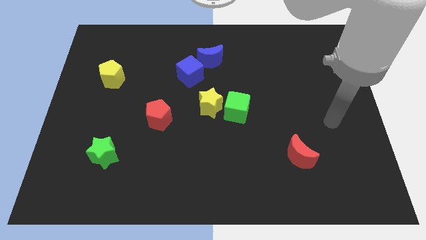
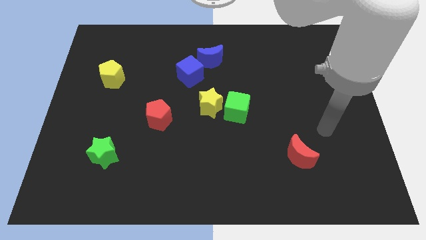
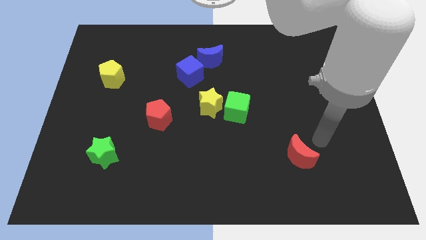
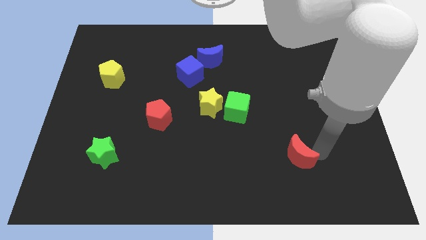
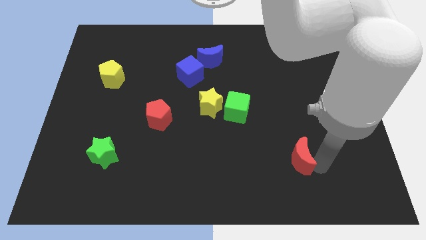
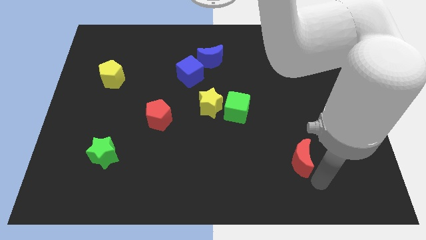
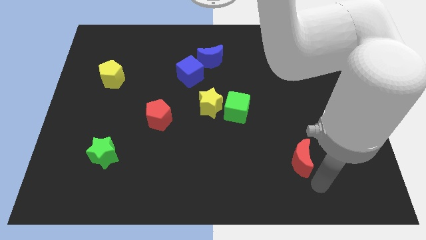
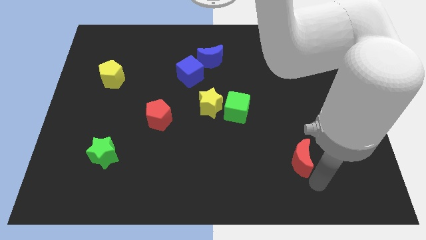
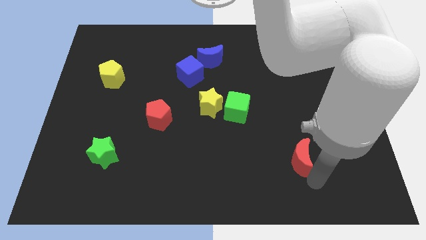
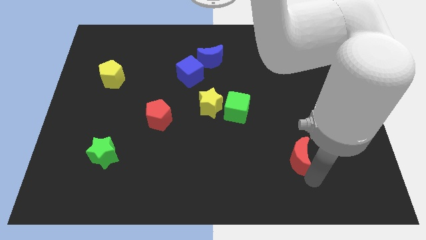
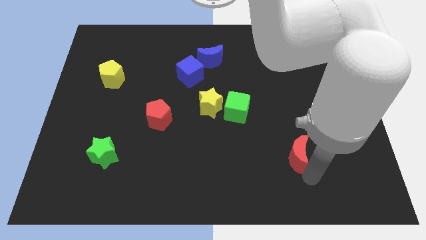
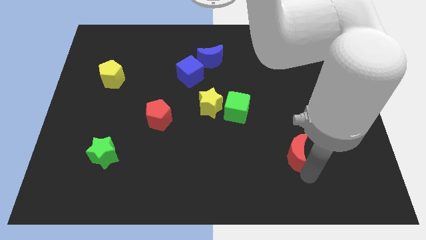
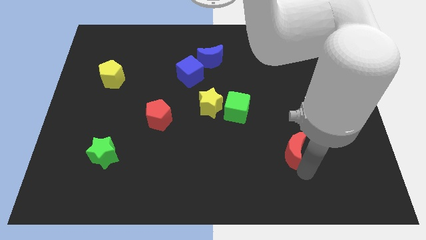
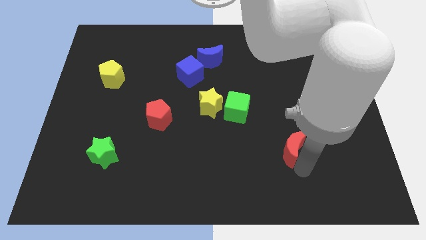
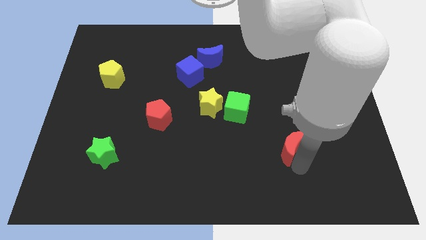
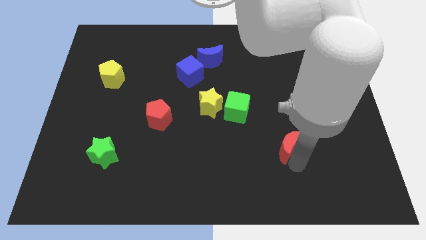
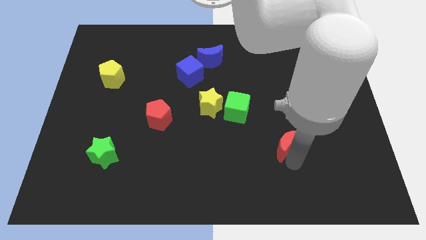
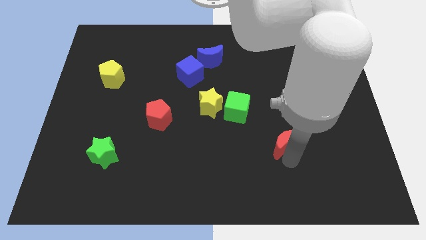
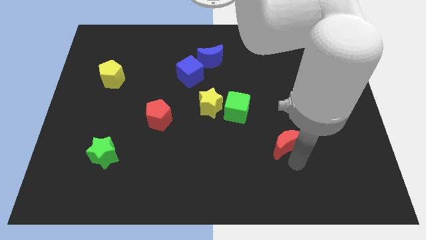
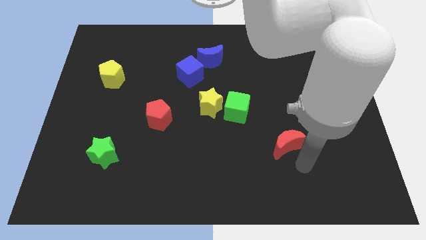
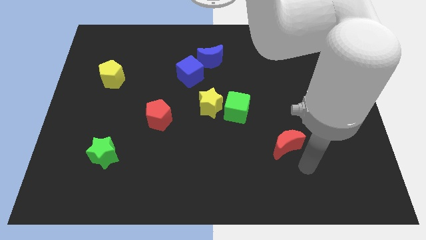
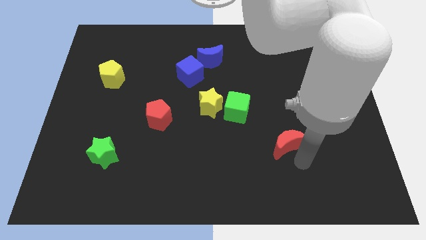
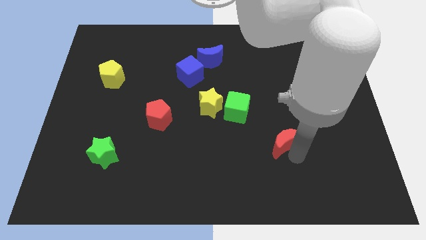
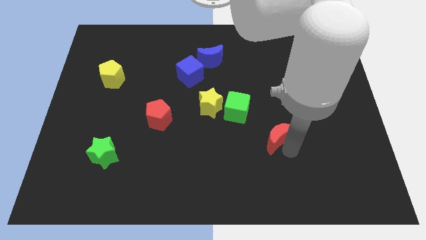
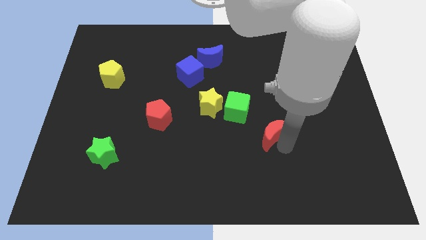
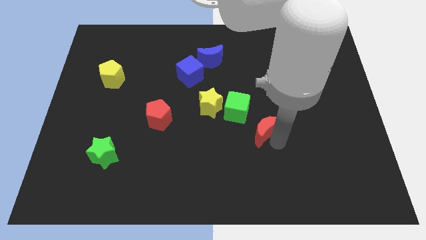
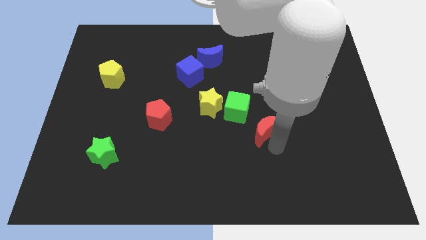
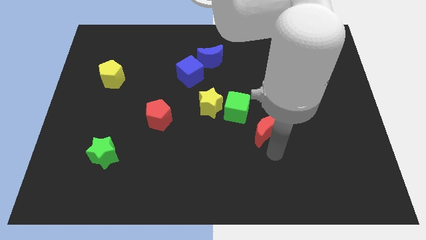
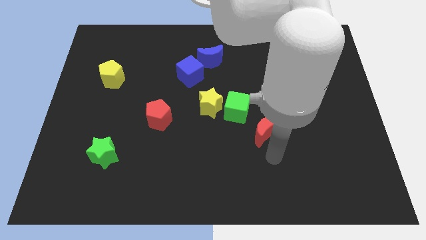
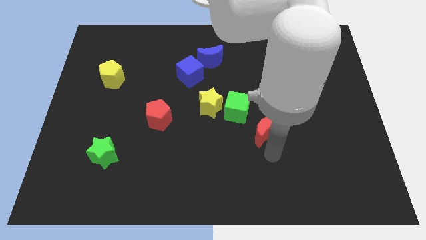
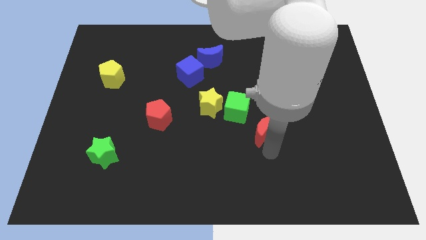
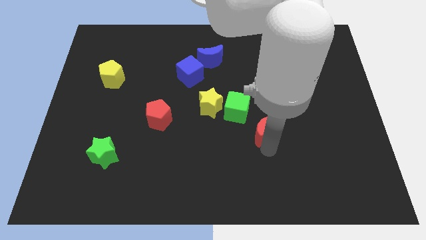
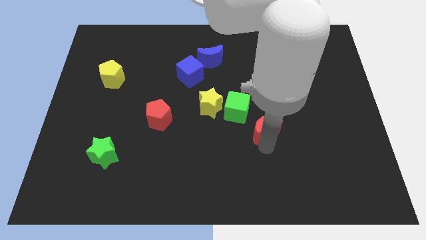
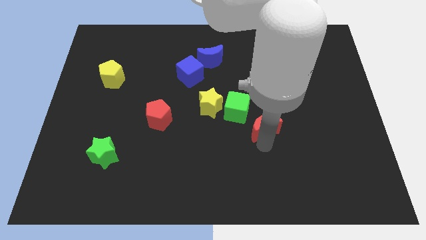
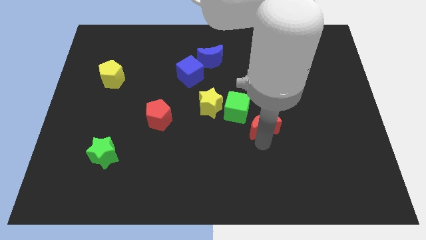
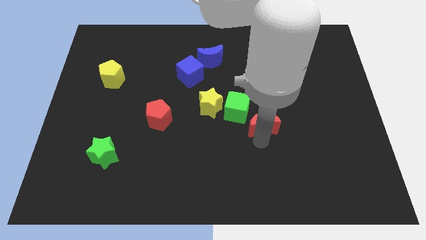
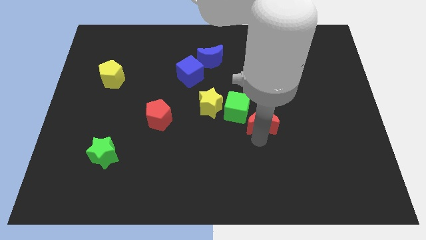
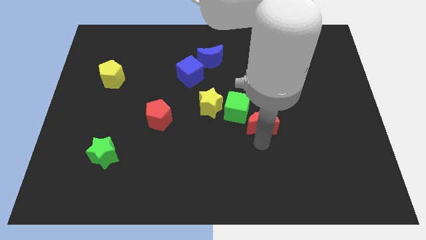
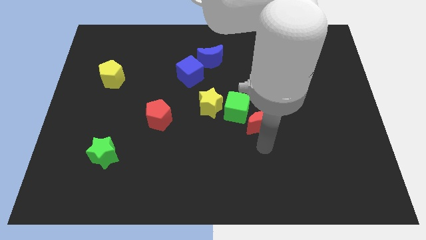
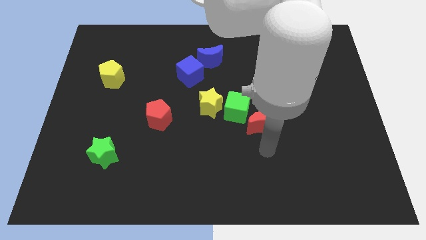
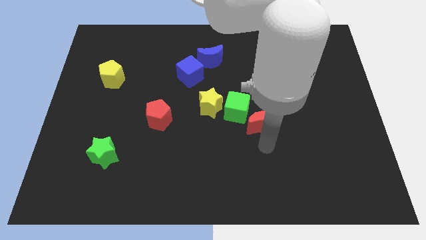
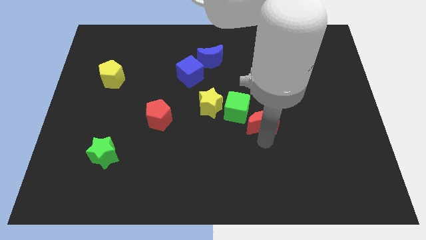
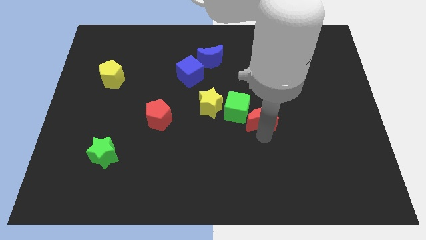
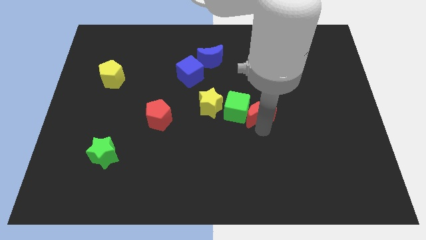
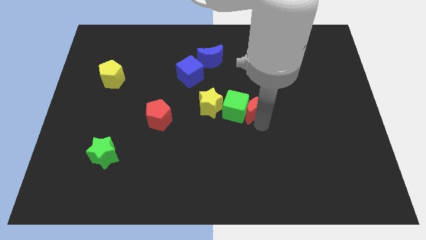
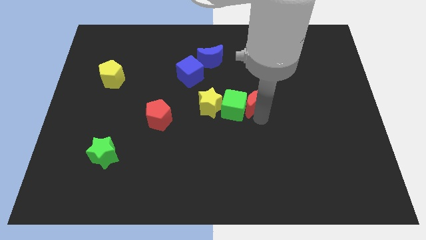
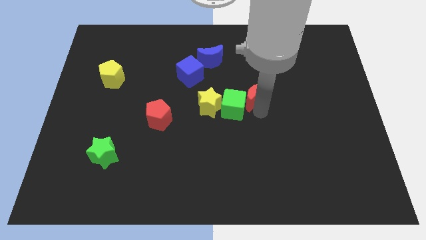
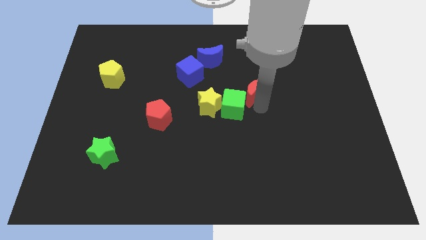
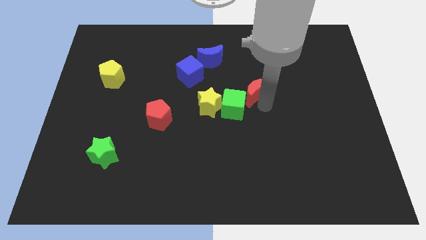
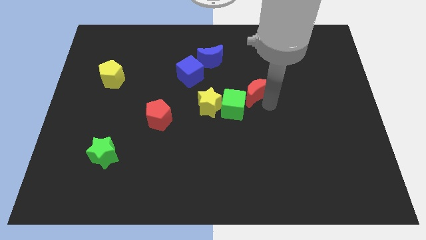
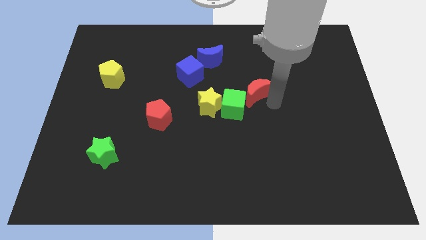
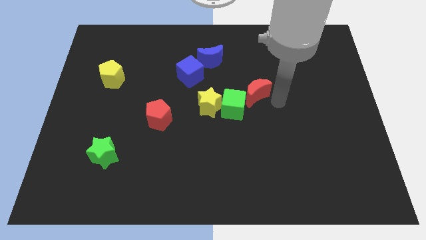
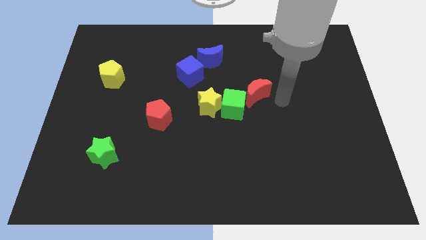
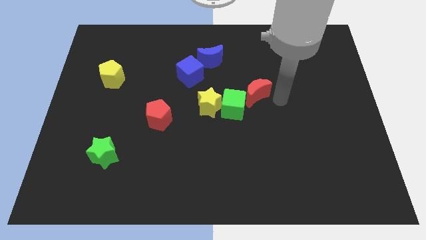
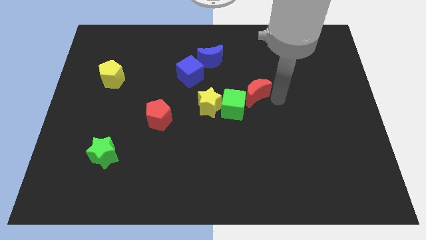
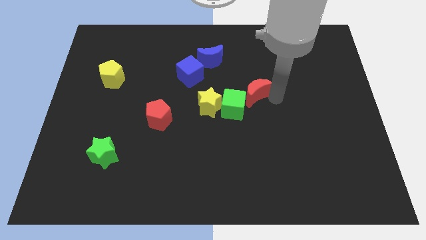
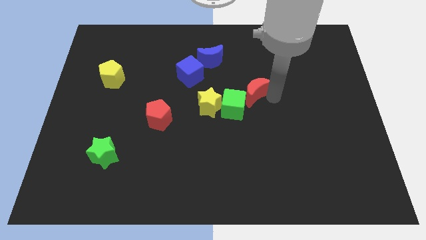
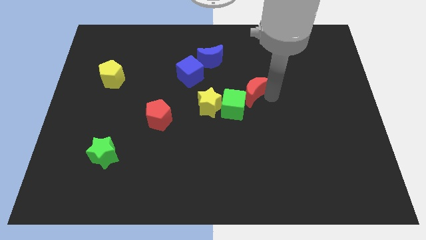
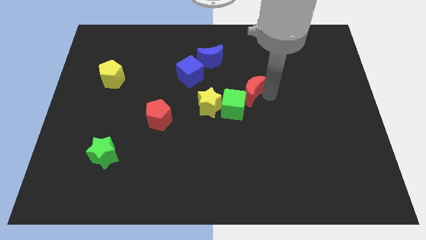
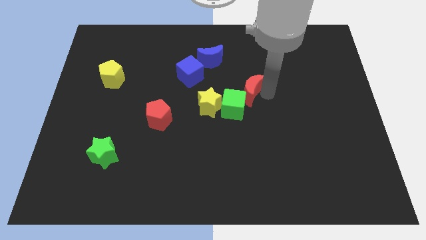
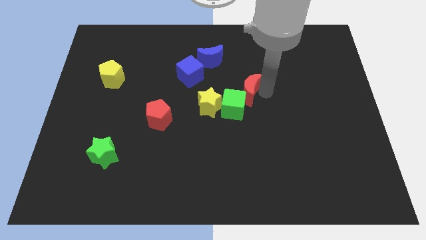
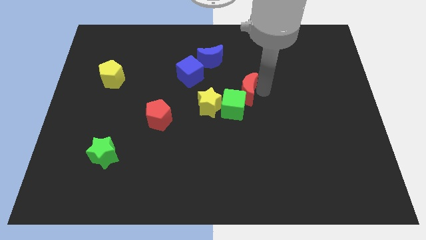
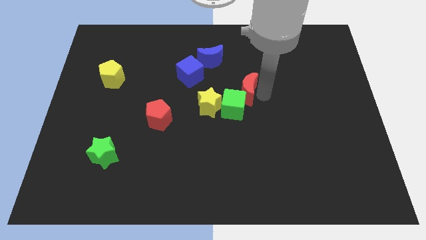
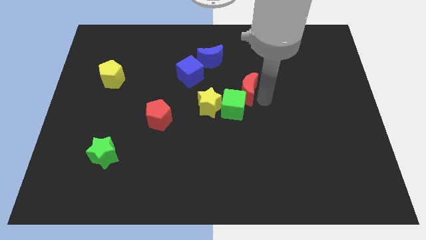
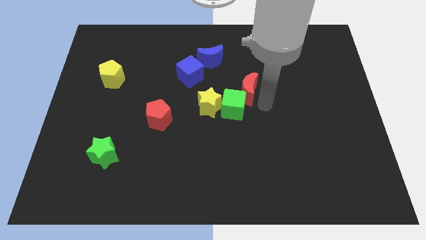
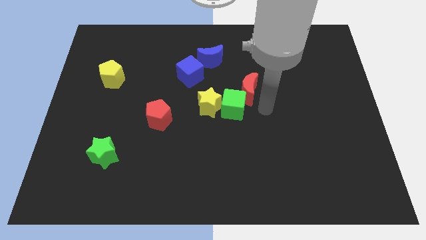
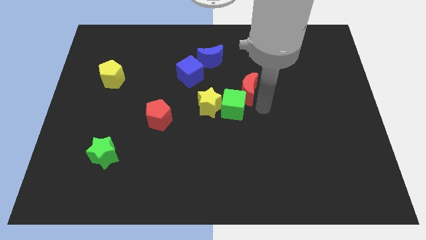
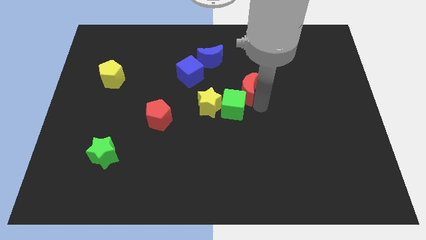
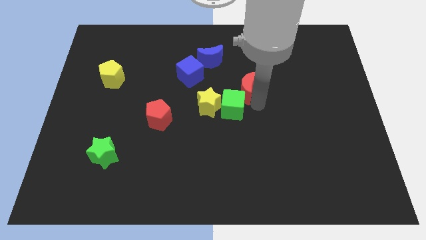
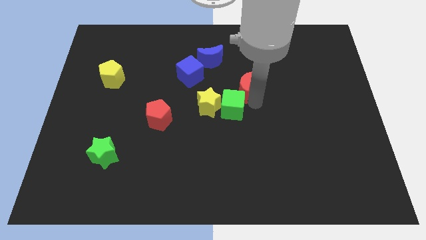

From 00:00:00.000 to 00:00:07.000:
slide the red moon to the bottom right of the blue moon

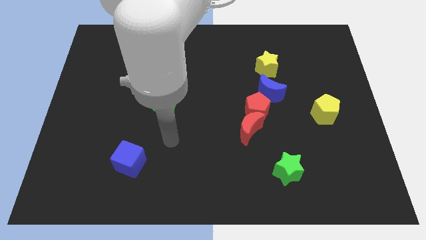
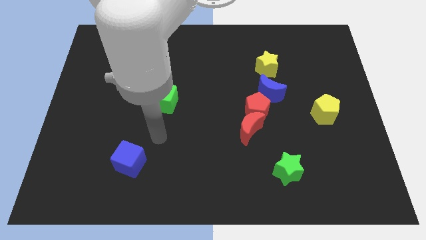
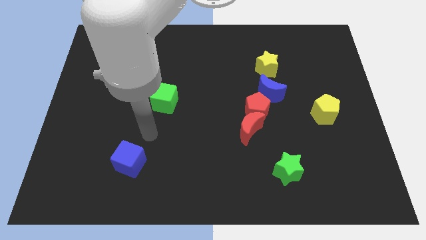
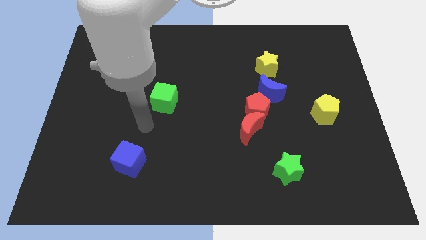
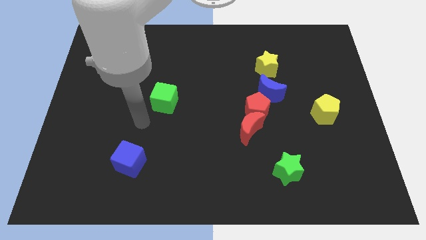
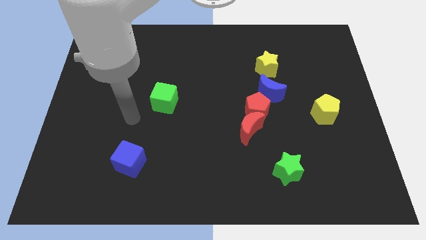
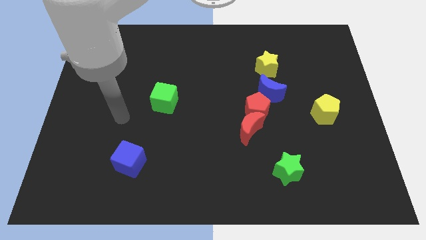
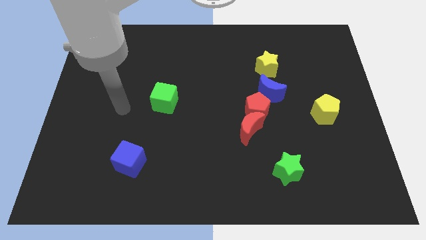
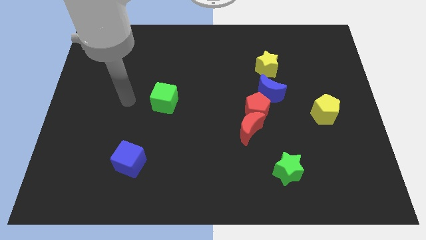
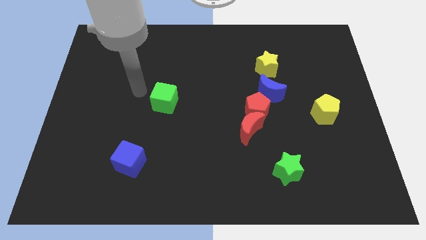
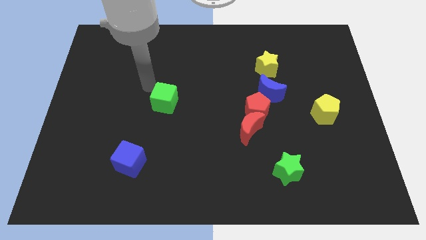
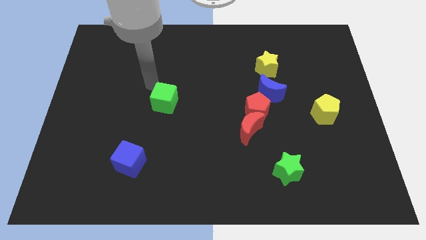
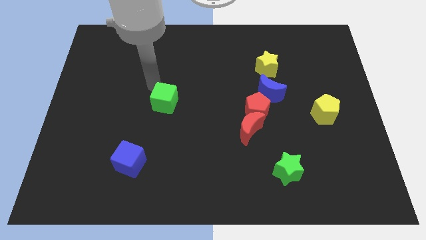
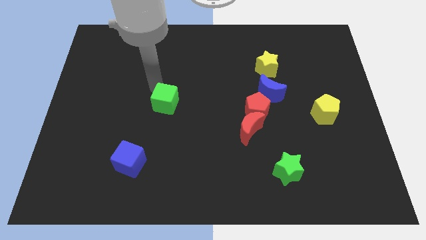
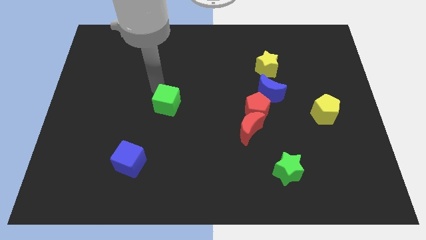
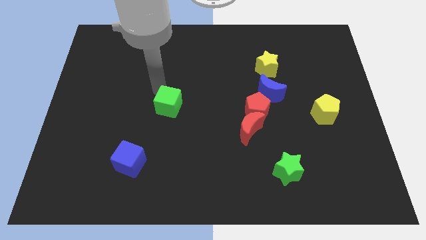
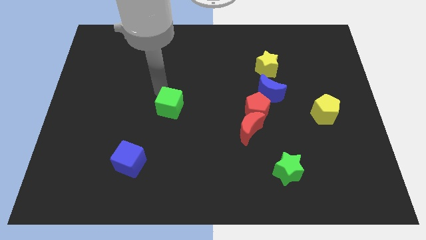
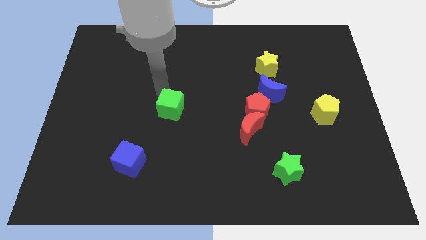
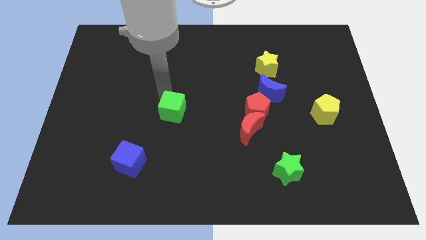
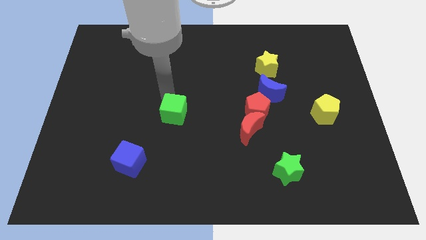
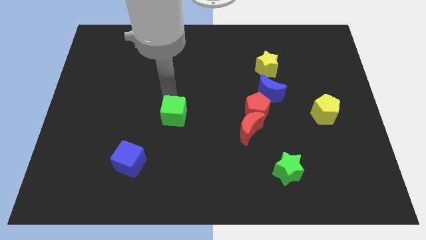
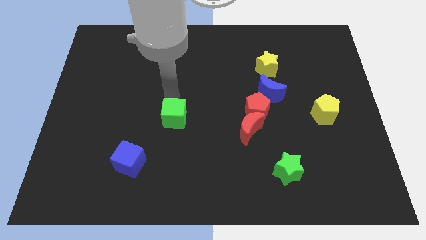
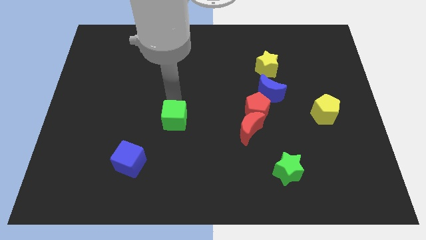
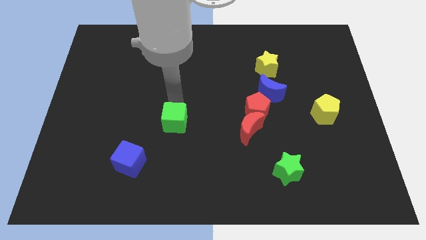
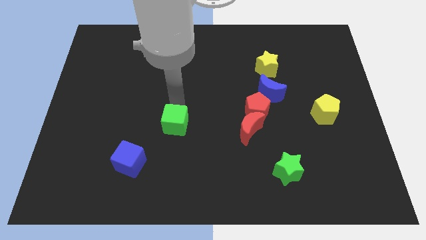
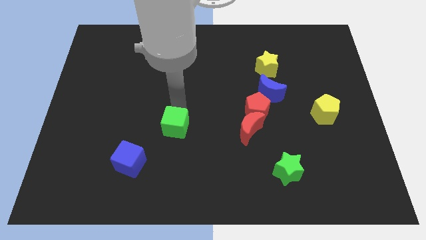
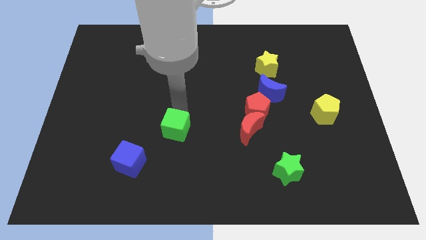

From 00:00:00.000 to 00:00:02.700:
slide the green cube to the left side of the red moon
